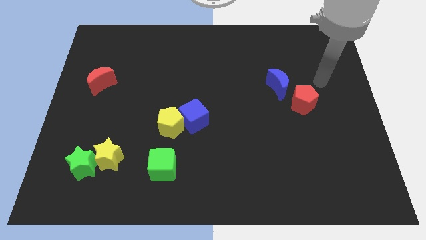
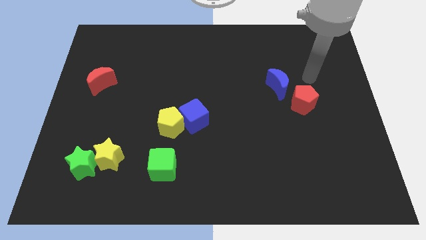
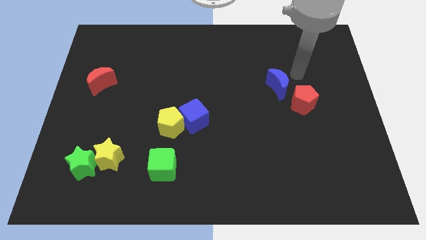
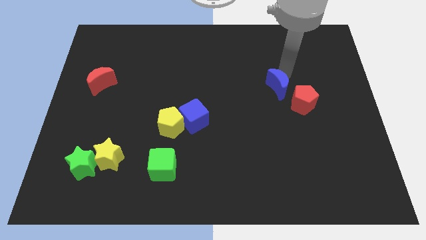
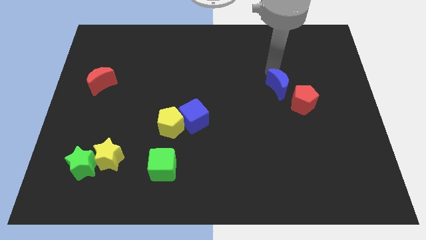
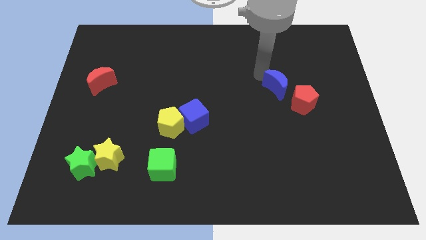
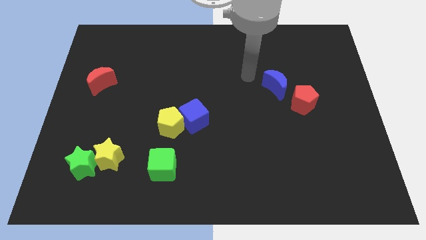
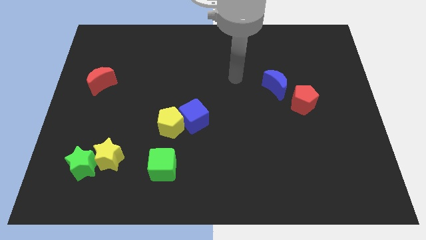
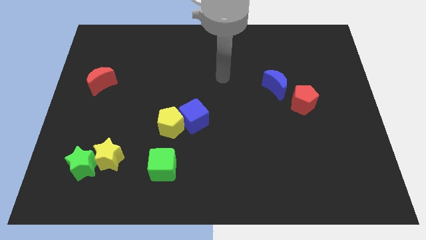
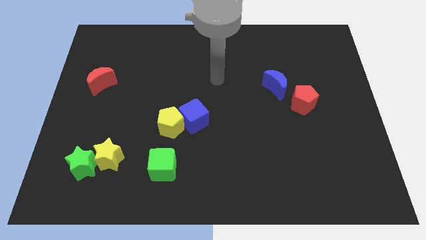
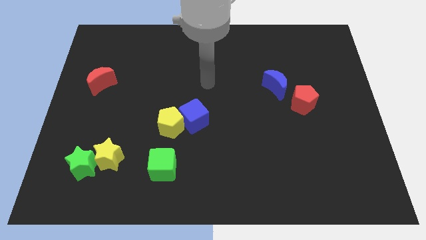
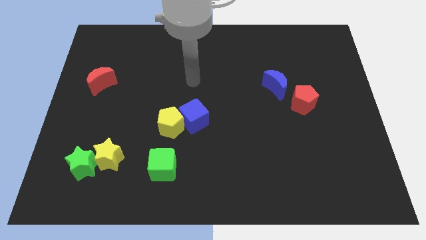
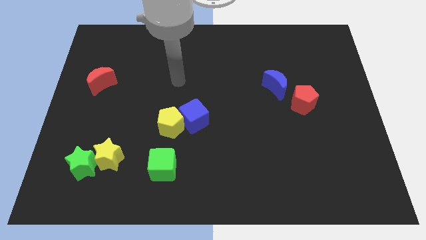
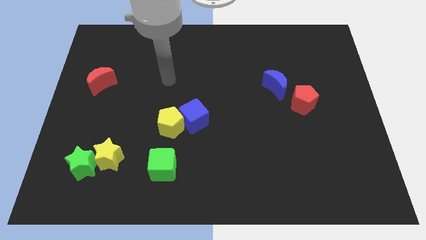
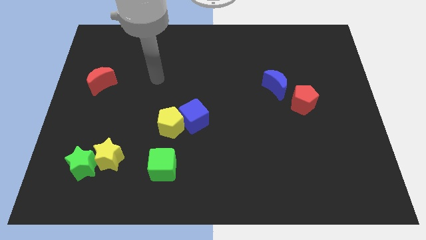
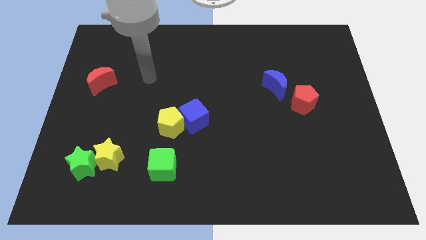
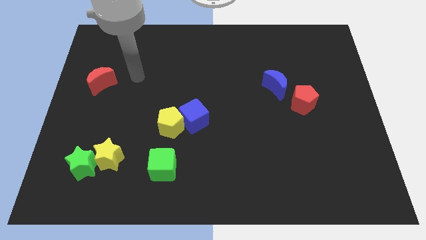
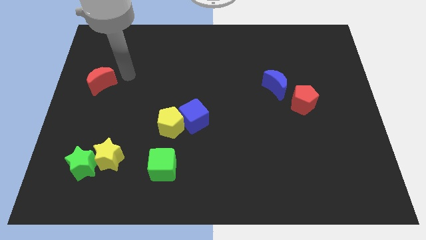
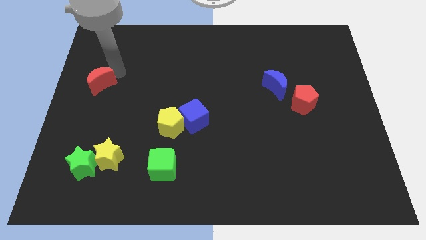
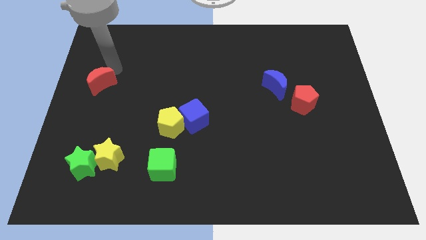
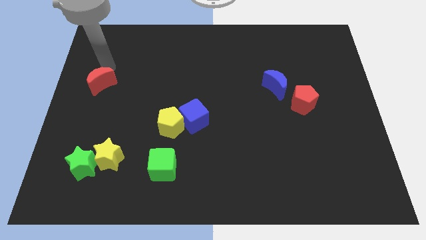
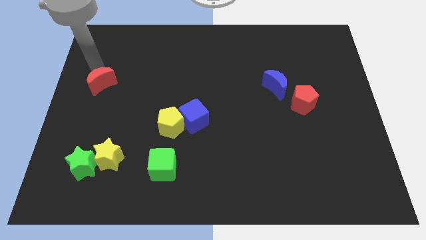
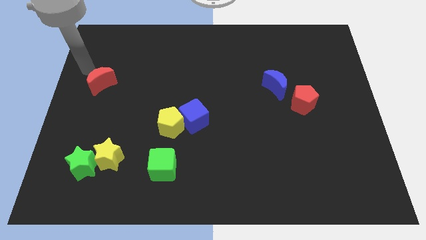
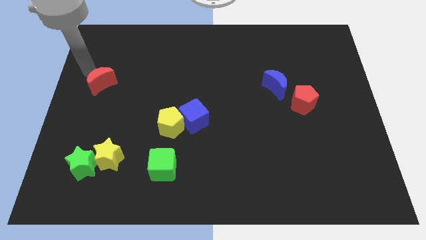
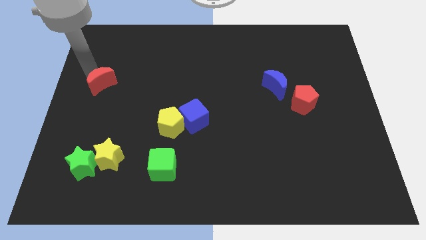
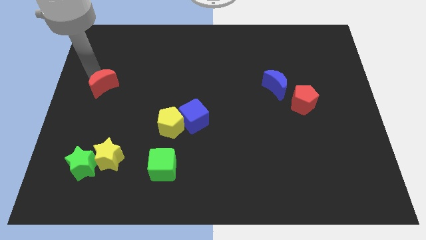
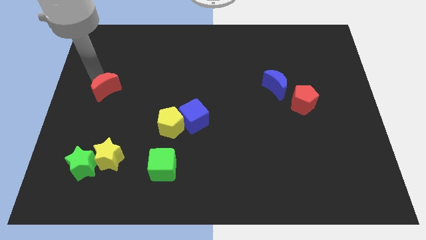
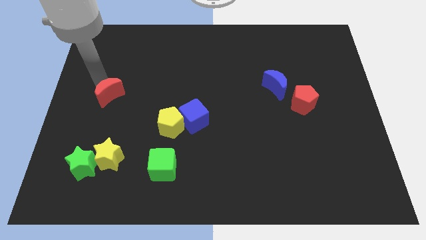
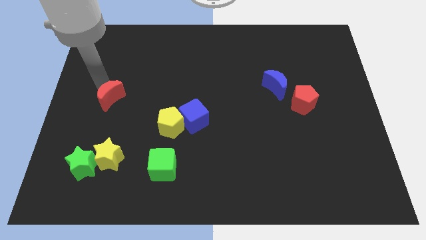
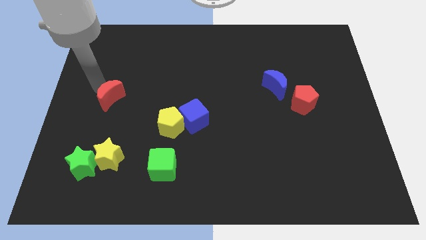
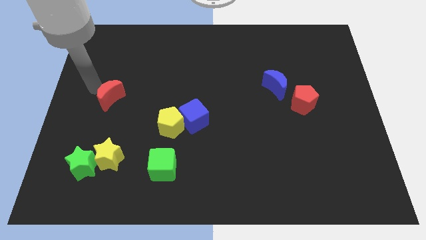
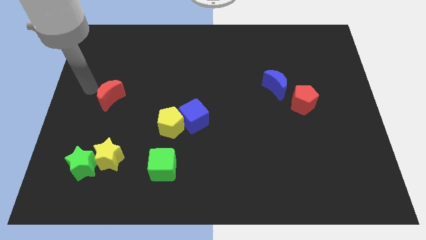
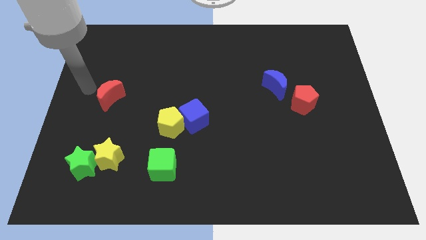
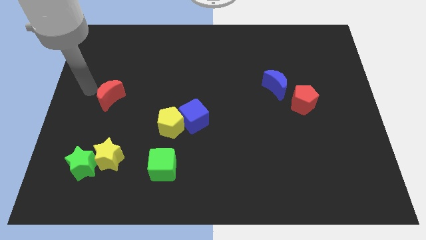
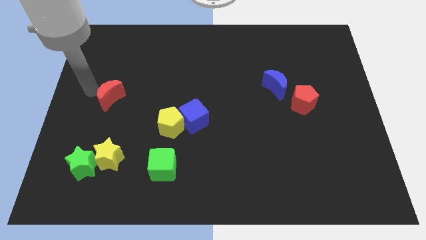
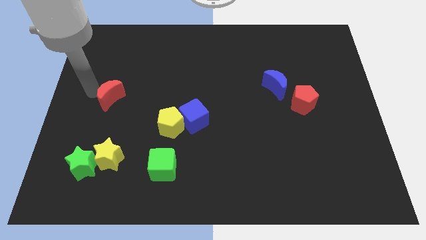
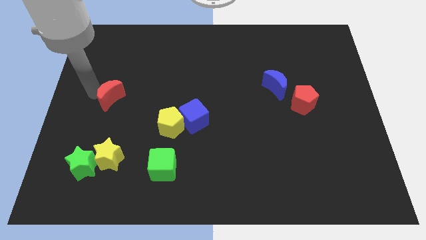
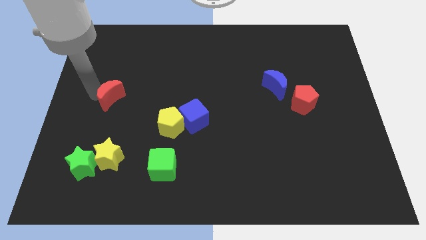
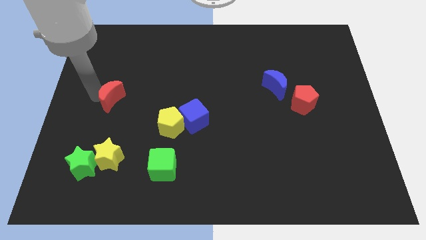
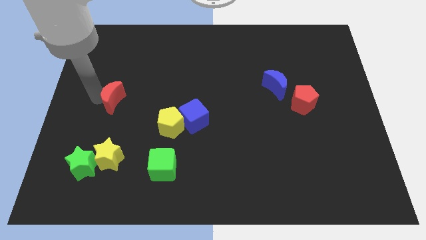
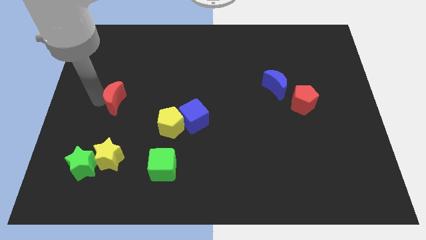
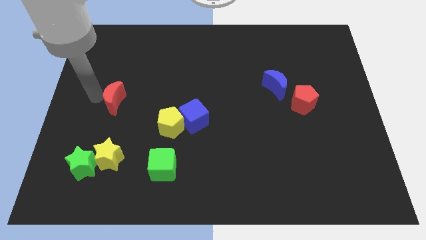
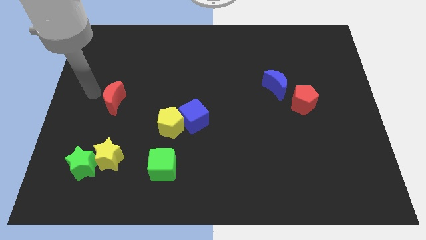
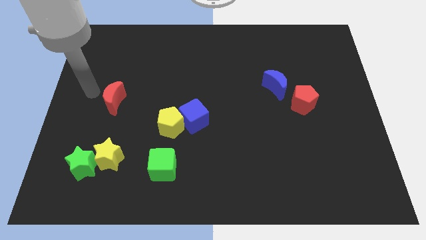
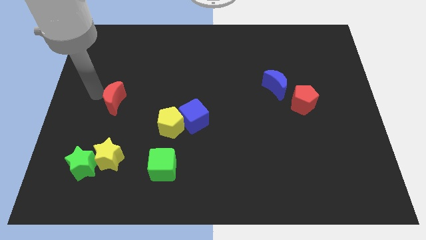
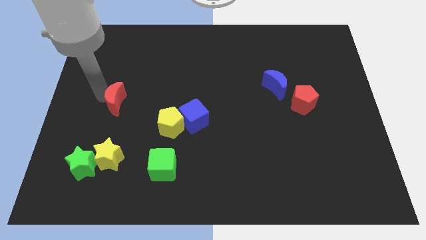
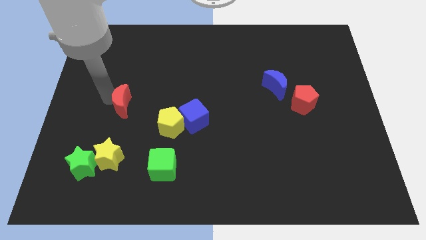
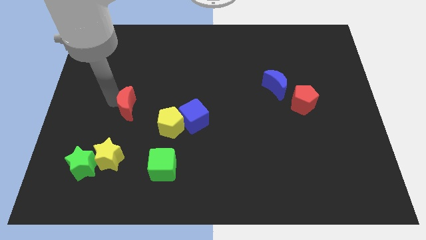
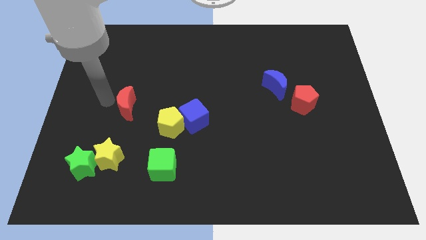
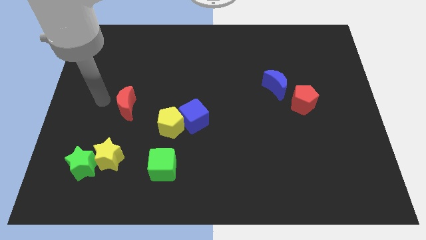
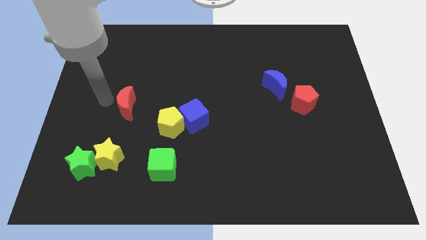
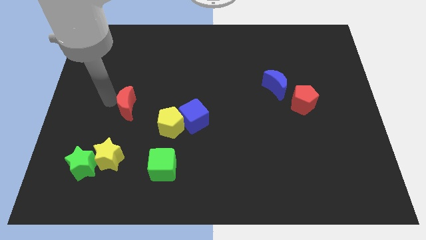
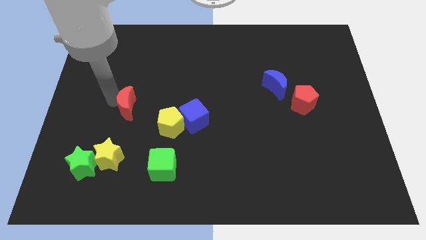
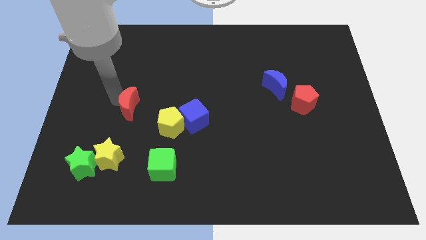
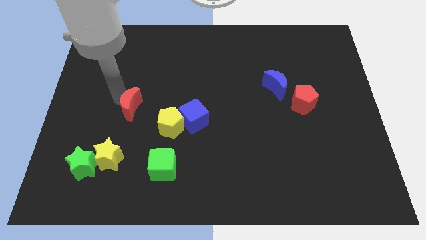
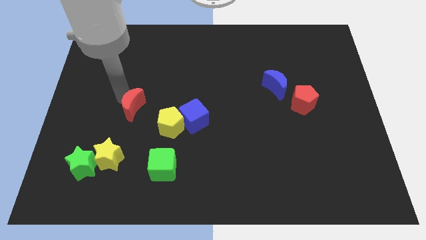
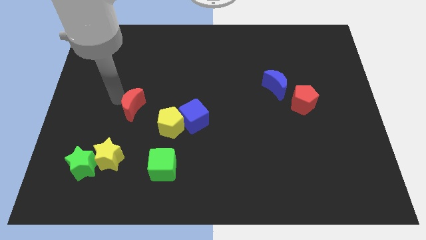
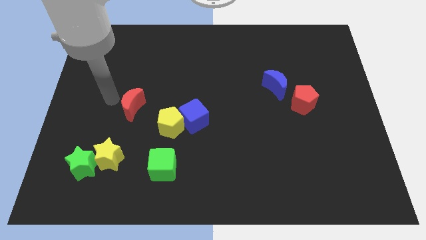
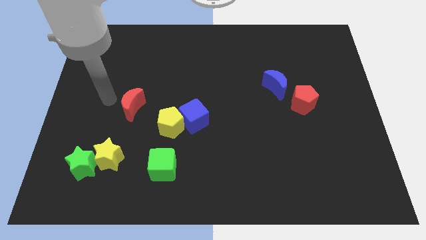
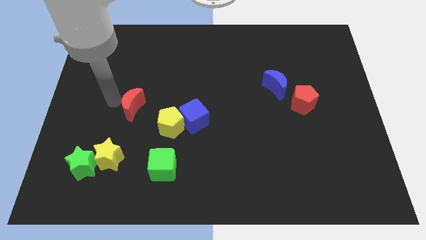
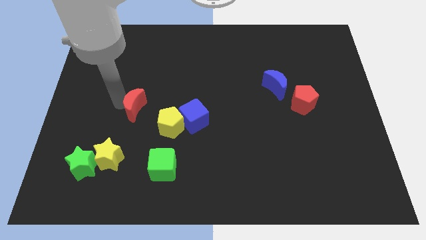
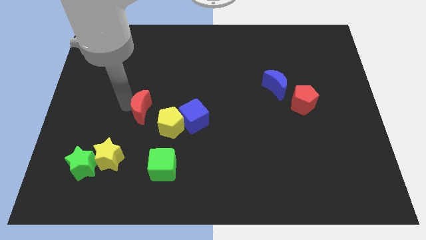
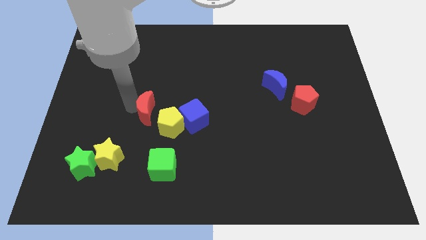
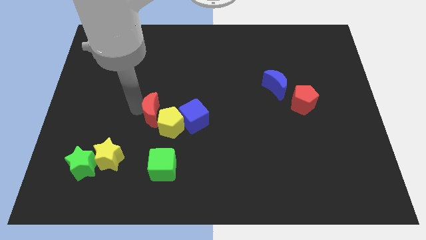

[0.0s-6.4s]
push the red moon close to the yellow pentagon

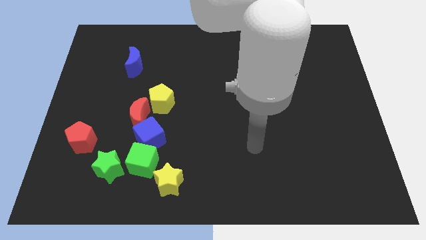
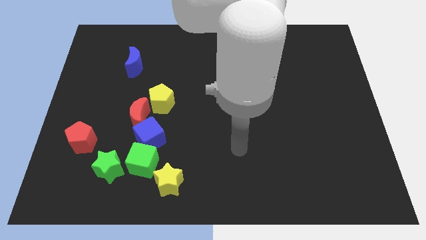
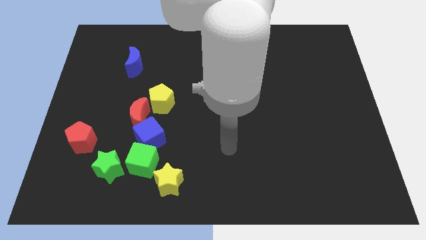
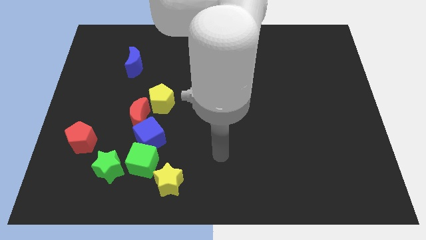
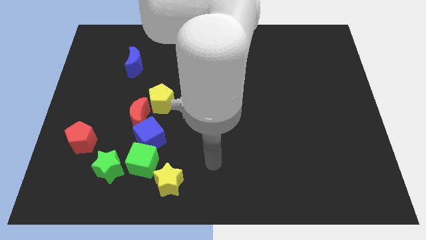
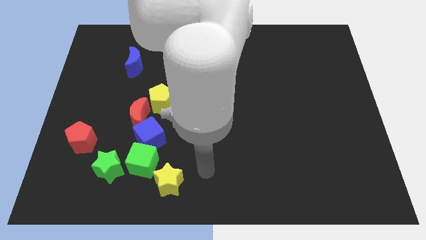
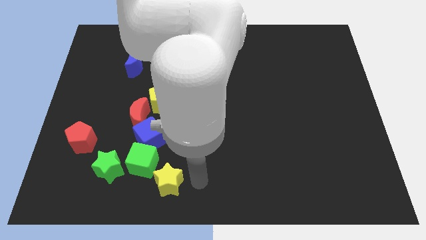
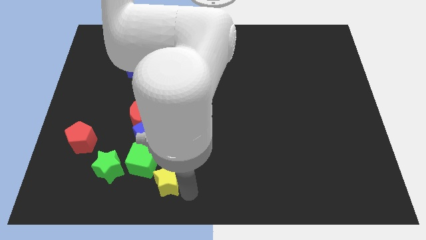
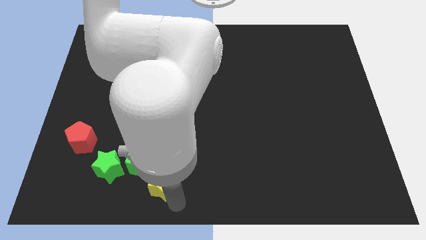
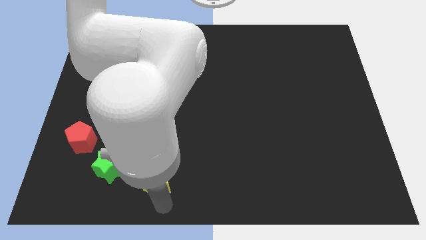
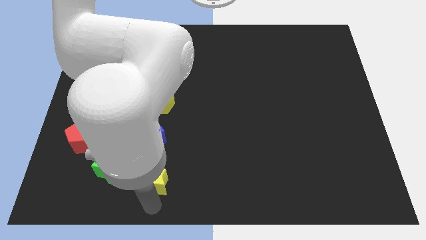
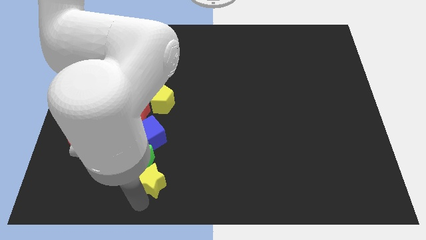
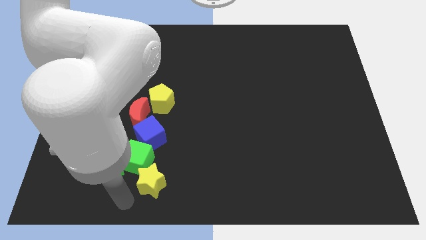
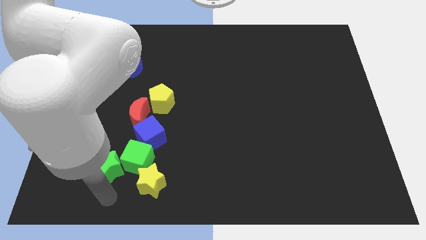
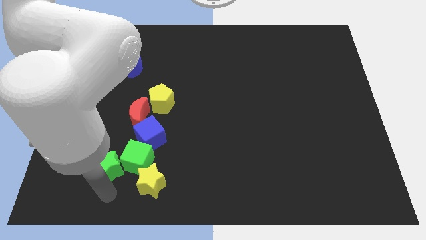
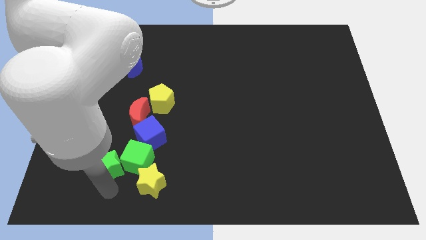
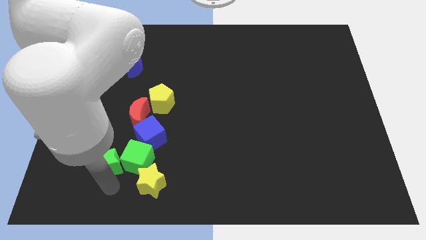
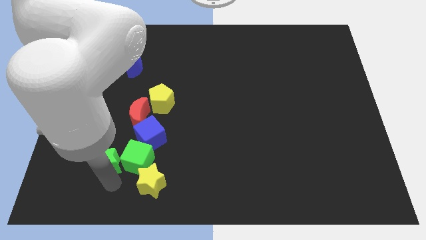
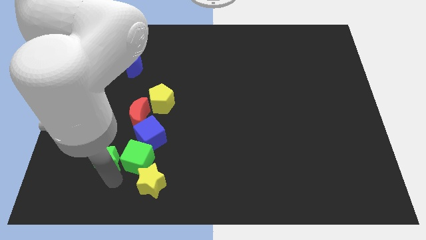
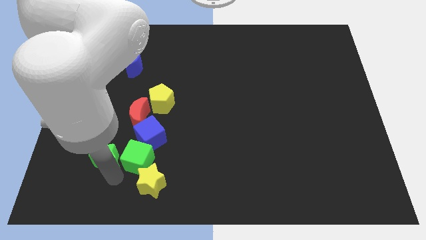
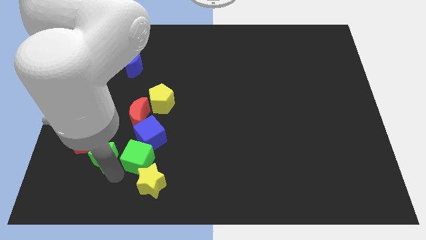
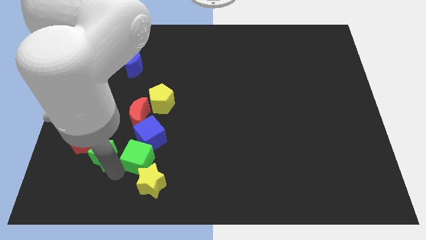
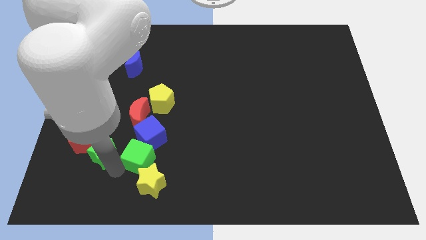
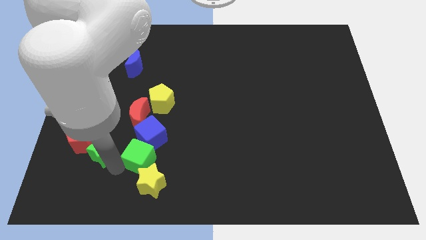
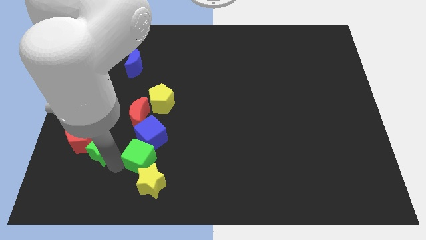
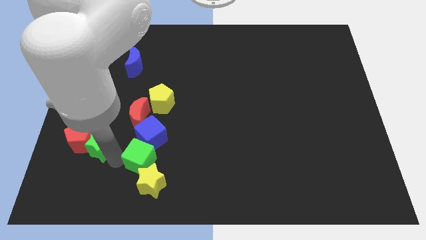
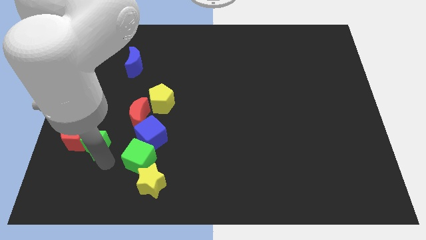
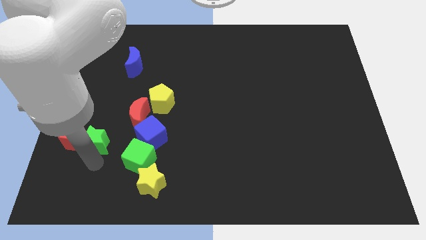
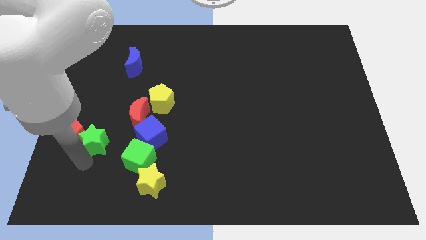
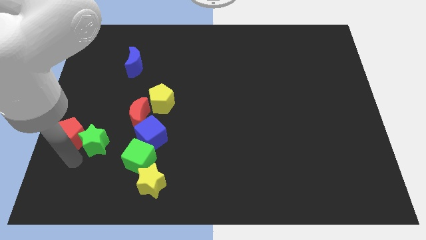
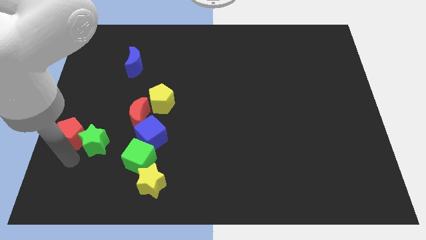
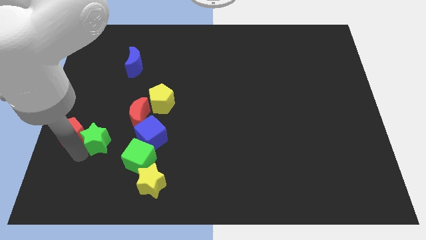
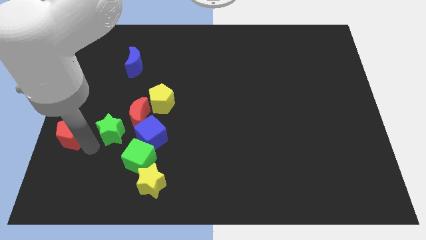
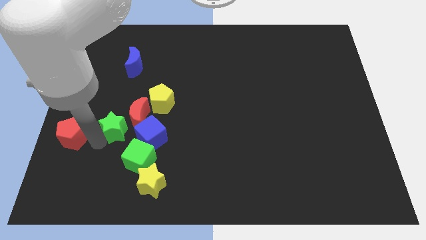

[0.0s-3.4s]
put the green star next to the red moon
